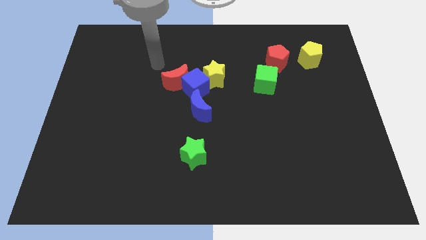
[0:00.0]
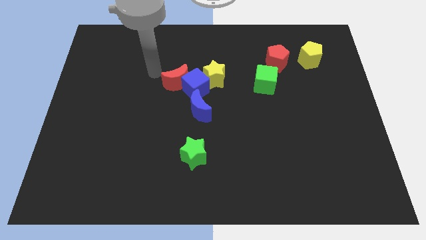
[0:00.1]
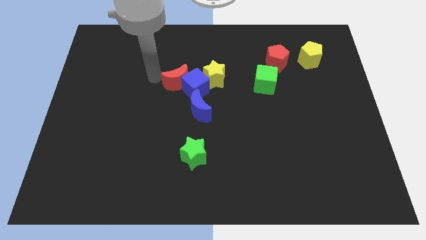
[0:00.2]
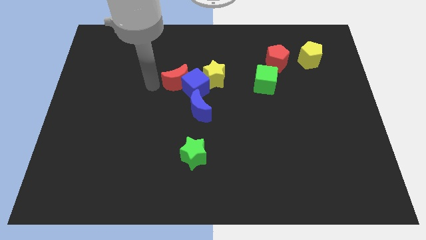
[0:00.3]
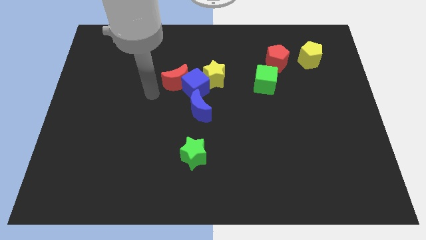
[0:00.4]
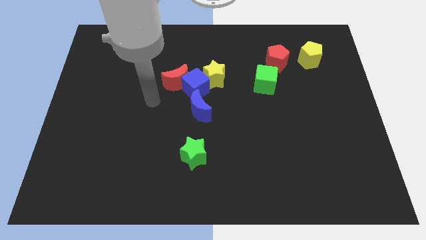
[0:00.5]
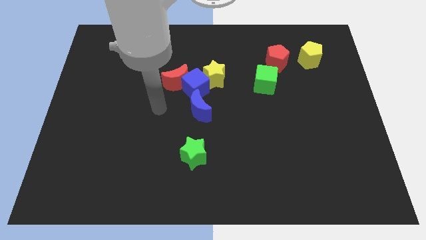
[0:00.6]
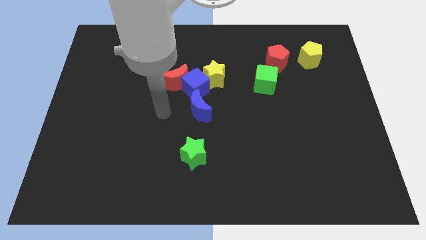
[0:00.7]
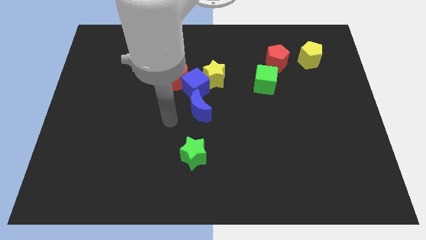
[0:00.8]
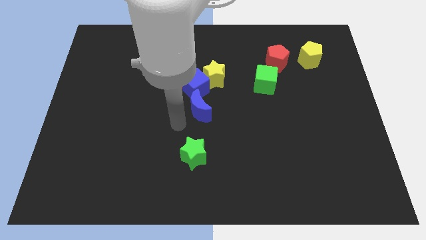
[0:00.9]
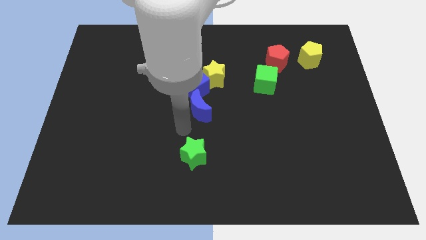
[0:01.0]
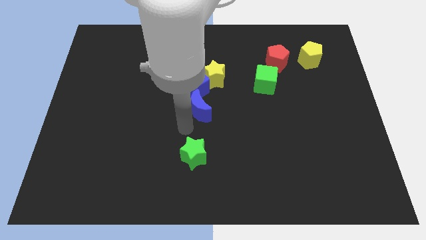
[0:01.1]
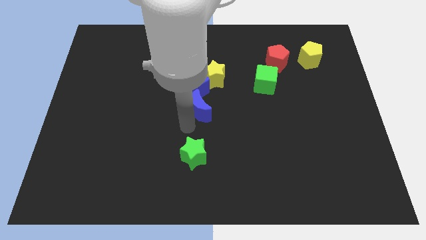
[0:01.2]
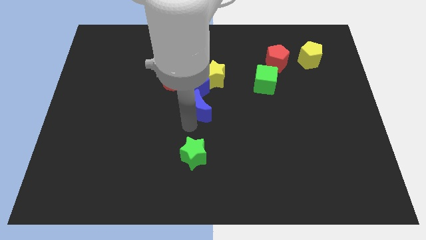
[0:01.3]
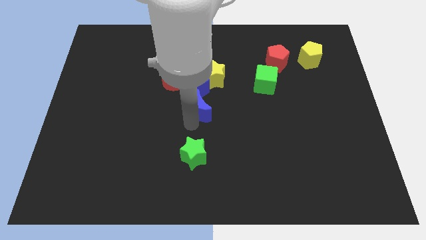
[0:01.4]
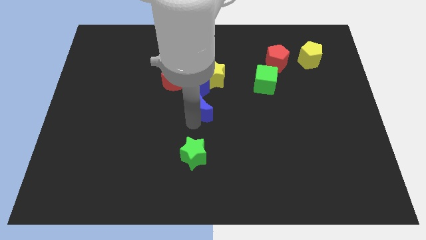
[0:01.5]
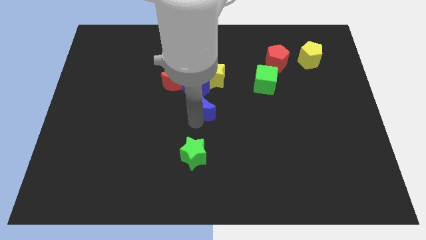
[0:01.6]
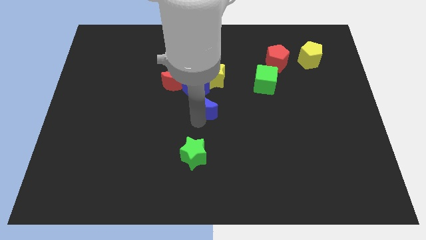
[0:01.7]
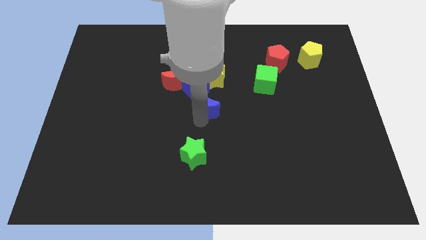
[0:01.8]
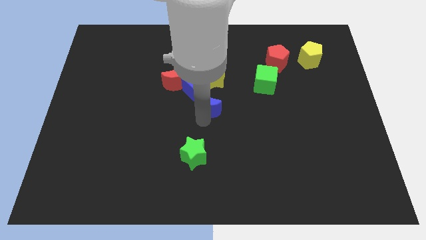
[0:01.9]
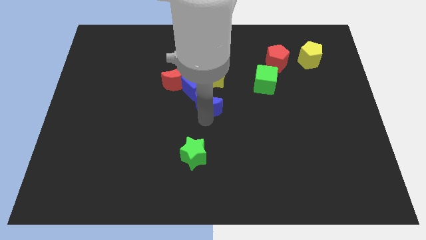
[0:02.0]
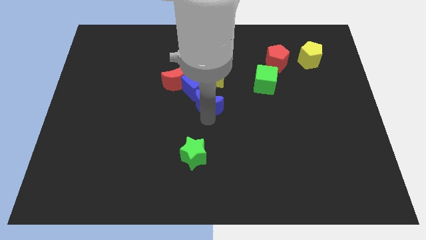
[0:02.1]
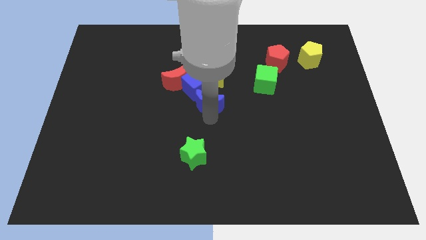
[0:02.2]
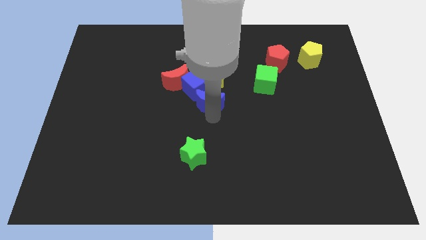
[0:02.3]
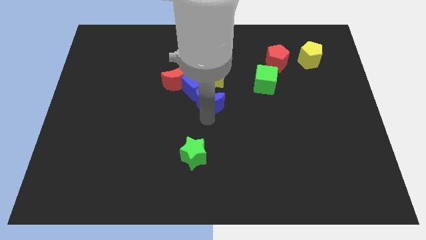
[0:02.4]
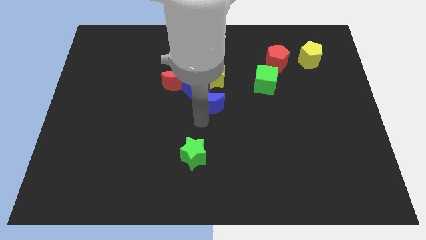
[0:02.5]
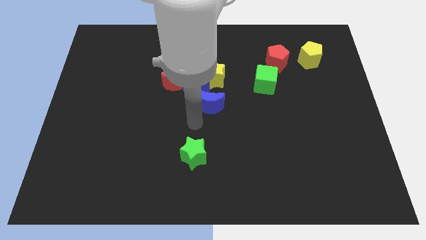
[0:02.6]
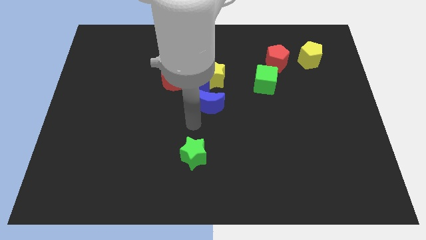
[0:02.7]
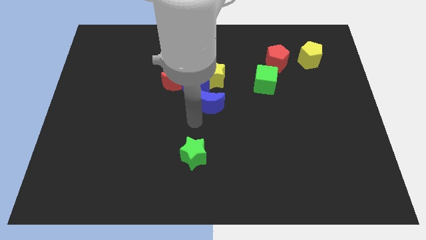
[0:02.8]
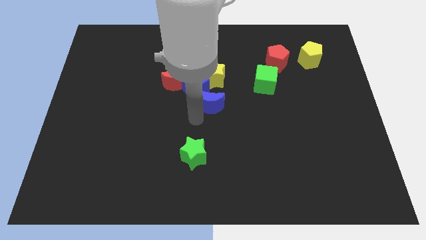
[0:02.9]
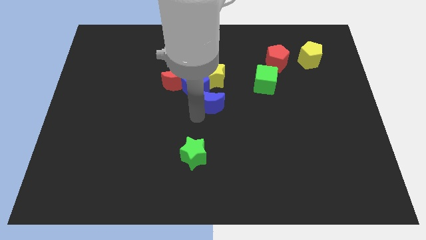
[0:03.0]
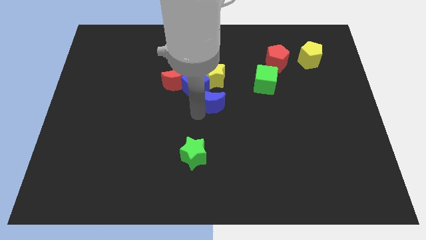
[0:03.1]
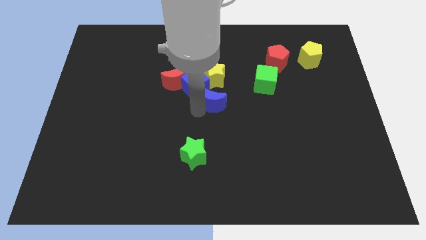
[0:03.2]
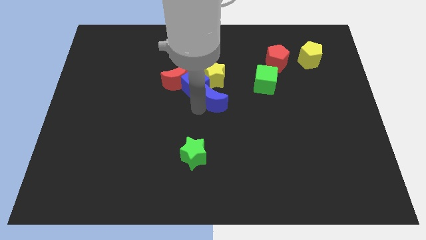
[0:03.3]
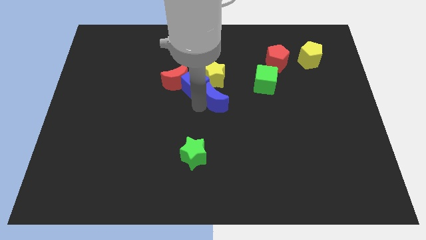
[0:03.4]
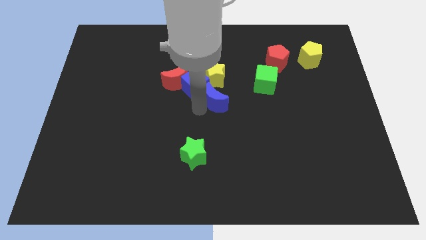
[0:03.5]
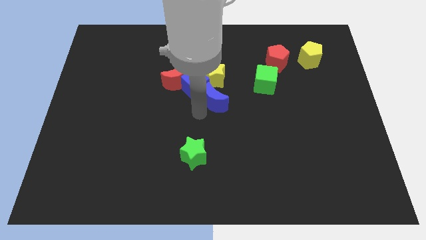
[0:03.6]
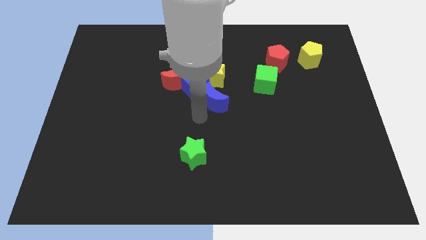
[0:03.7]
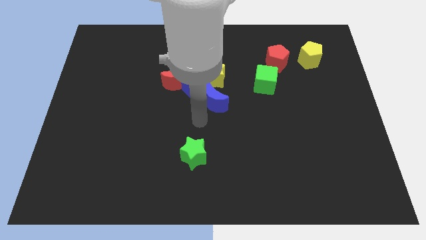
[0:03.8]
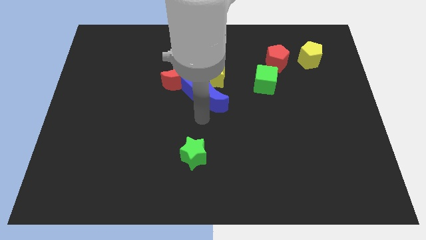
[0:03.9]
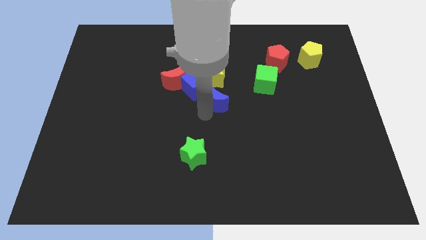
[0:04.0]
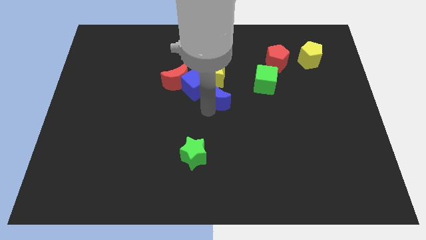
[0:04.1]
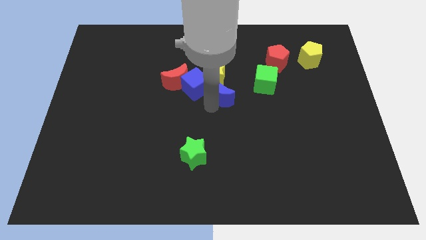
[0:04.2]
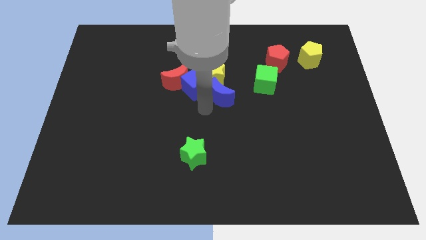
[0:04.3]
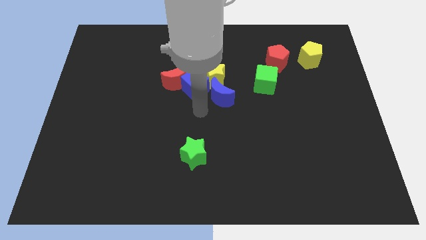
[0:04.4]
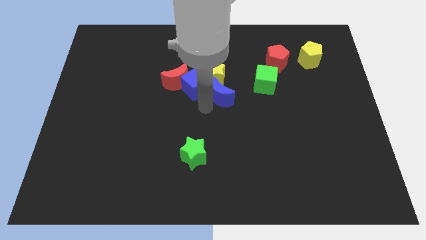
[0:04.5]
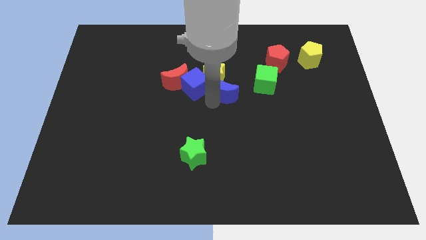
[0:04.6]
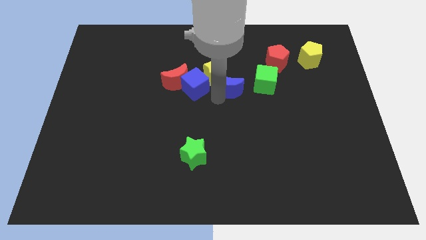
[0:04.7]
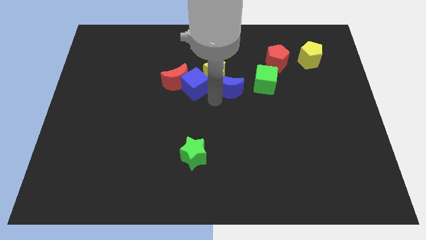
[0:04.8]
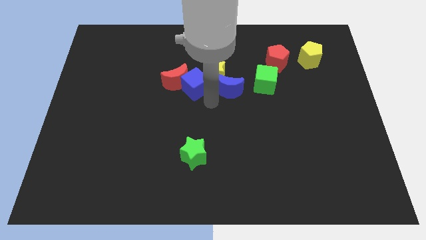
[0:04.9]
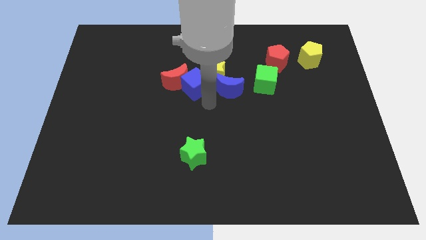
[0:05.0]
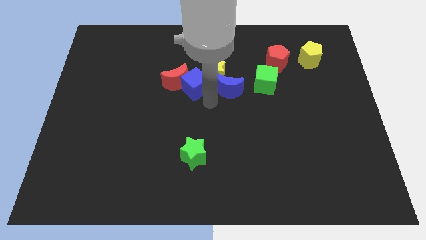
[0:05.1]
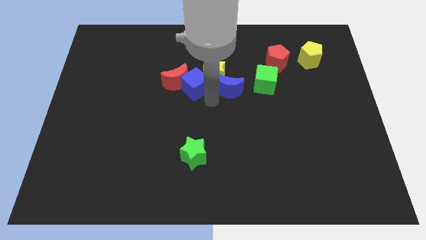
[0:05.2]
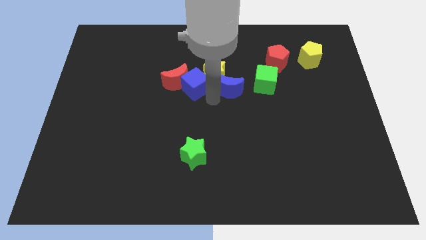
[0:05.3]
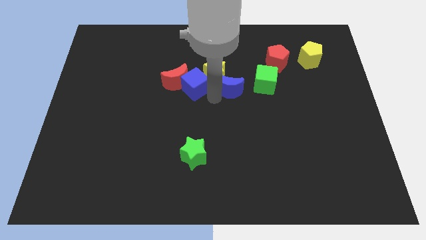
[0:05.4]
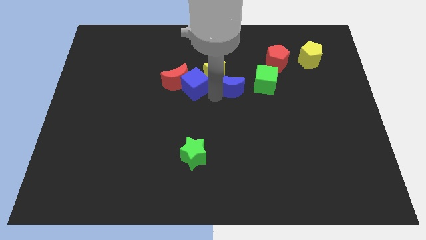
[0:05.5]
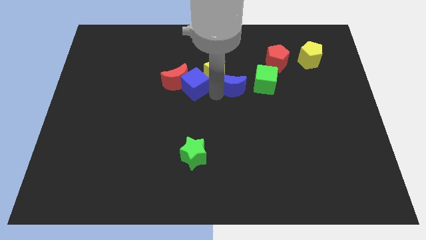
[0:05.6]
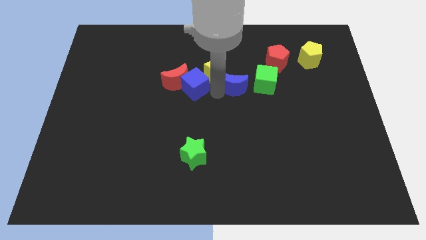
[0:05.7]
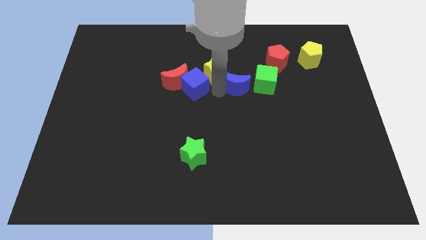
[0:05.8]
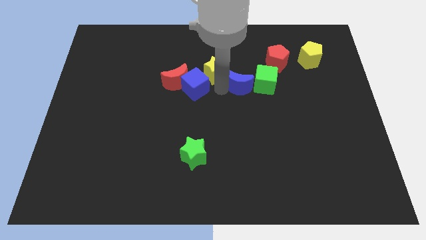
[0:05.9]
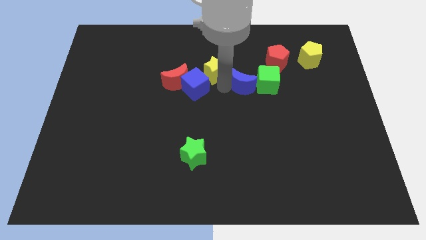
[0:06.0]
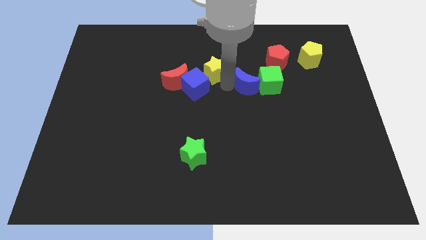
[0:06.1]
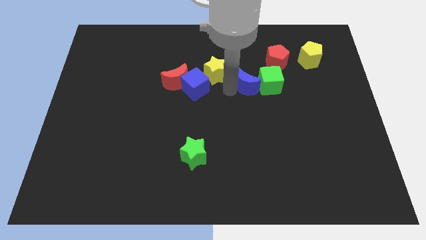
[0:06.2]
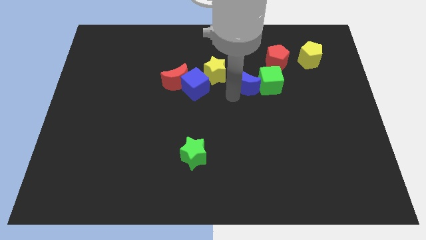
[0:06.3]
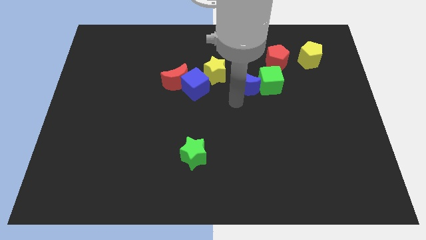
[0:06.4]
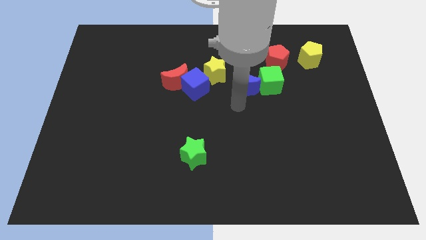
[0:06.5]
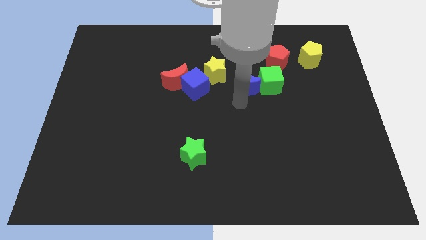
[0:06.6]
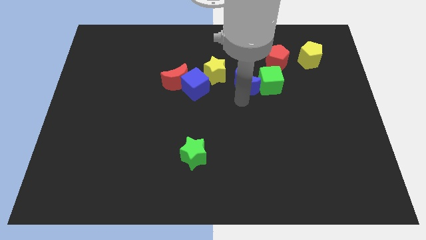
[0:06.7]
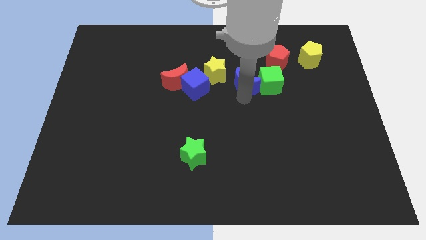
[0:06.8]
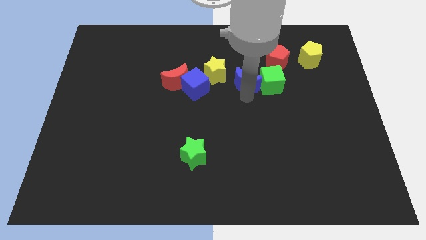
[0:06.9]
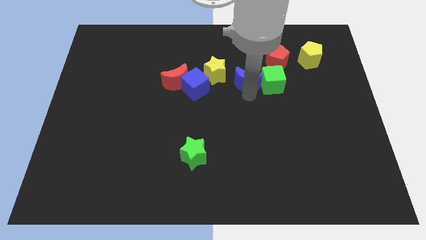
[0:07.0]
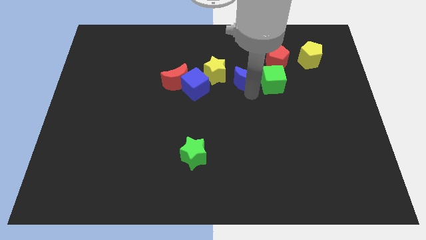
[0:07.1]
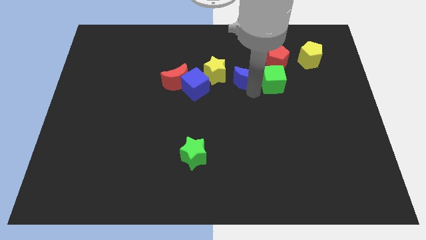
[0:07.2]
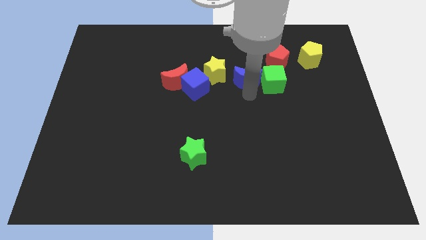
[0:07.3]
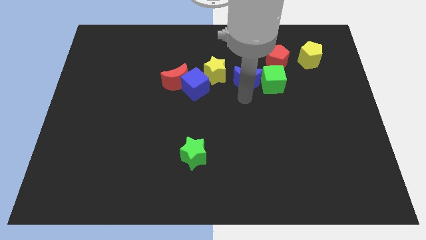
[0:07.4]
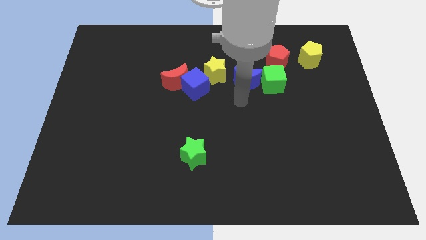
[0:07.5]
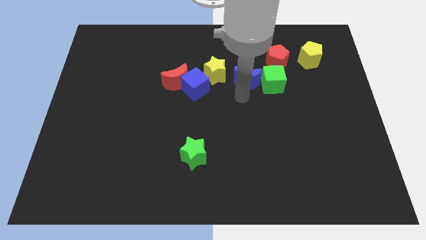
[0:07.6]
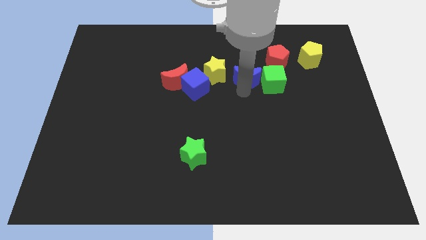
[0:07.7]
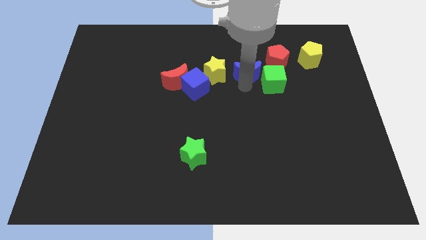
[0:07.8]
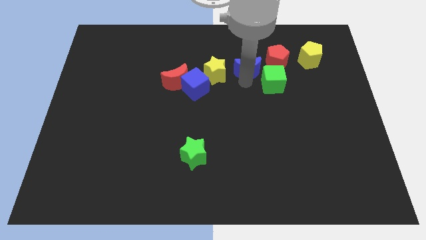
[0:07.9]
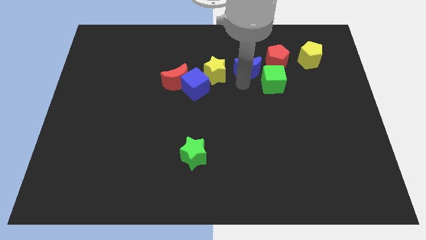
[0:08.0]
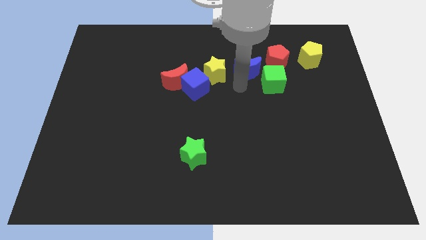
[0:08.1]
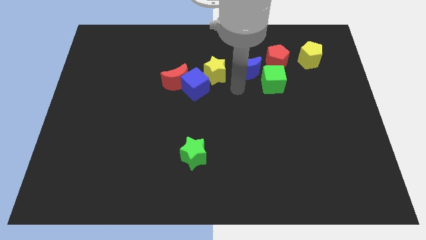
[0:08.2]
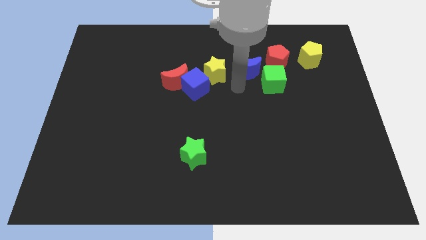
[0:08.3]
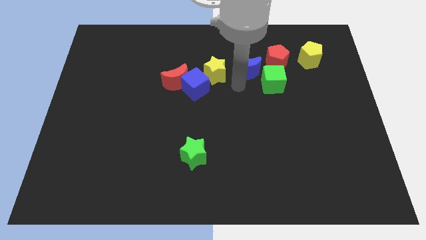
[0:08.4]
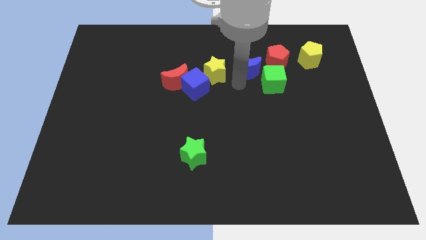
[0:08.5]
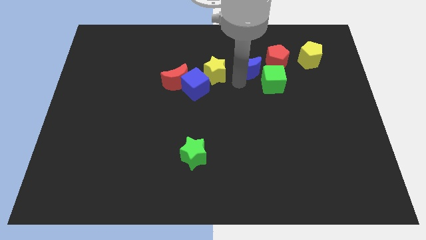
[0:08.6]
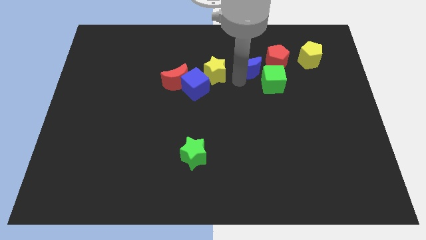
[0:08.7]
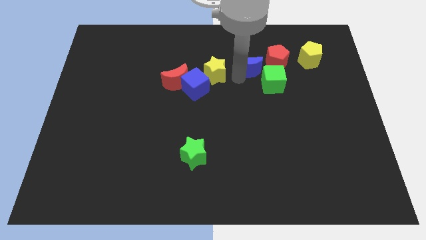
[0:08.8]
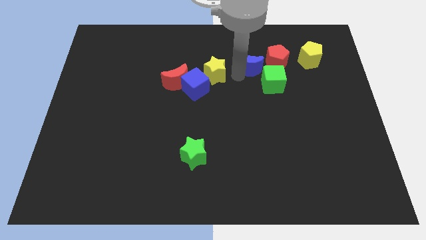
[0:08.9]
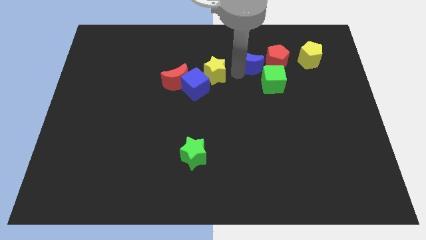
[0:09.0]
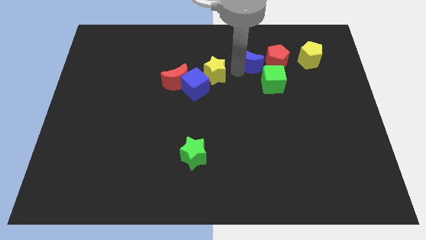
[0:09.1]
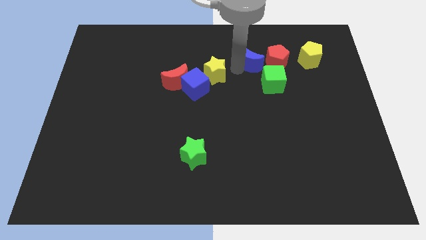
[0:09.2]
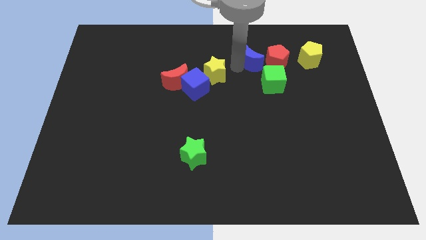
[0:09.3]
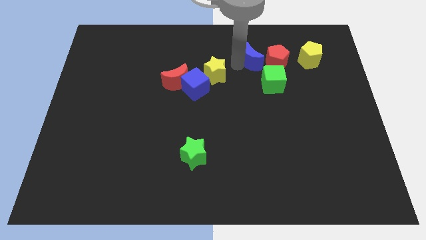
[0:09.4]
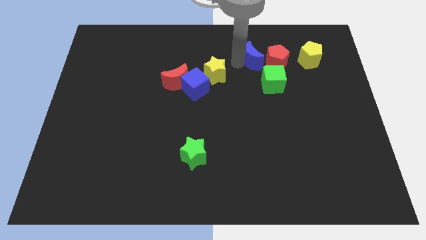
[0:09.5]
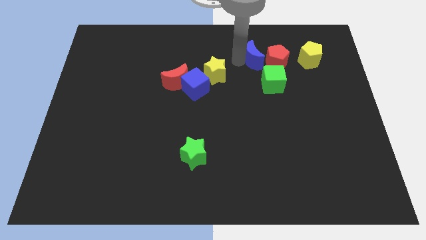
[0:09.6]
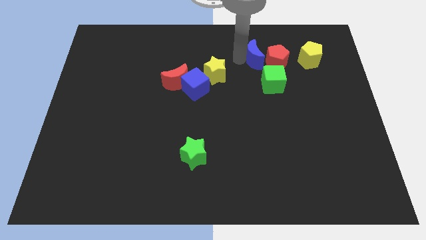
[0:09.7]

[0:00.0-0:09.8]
move the blue moon next to the red pentagon
